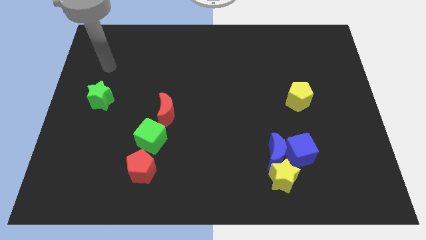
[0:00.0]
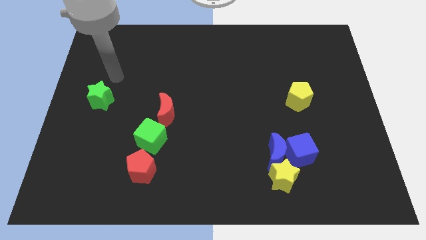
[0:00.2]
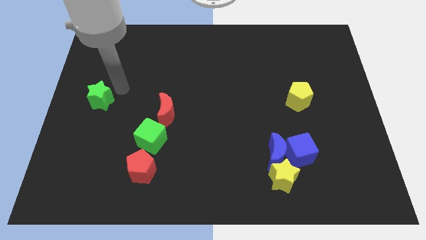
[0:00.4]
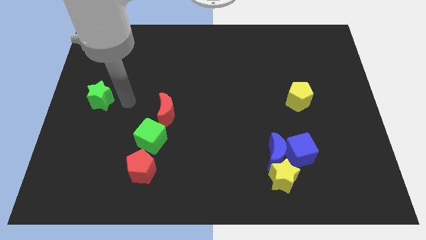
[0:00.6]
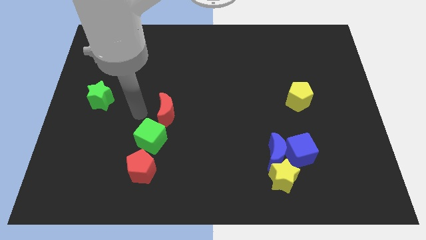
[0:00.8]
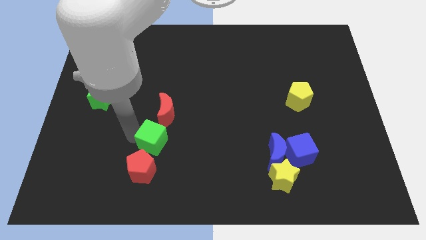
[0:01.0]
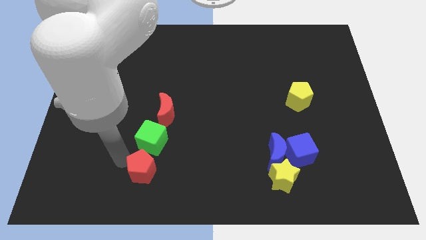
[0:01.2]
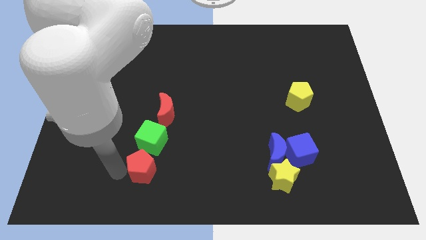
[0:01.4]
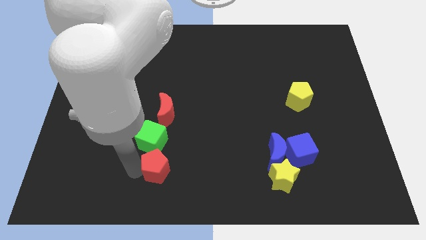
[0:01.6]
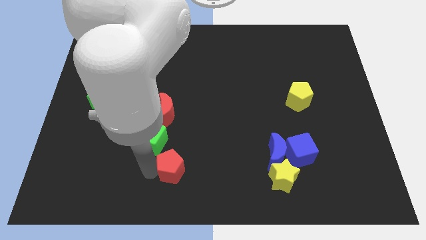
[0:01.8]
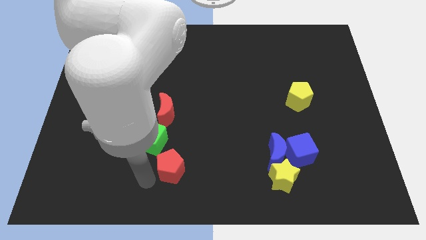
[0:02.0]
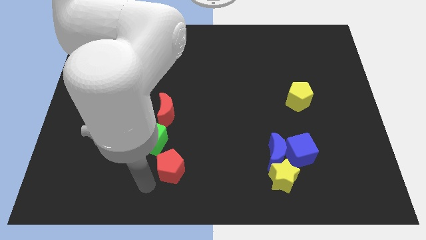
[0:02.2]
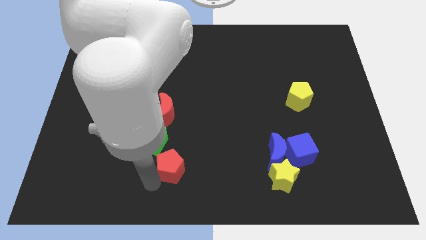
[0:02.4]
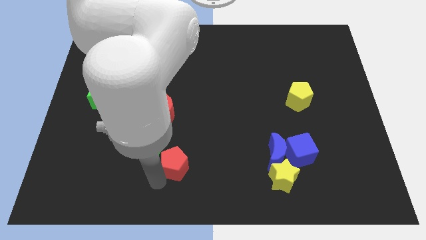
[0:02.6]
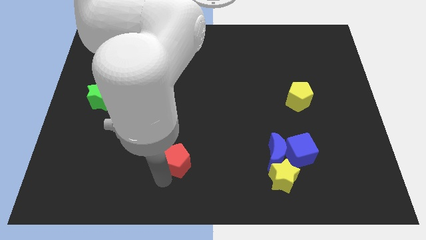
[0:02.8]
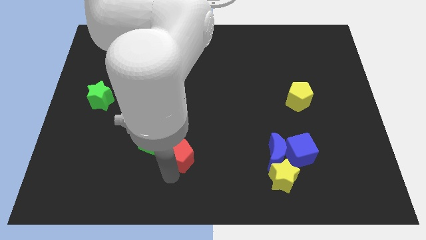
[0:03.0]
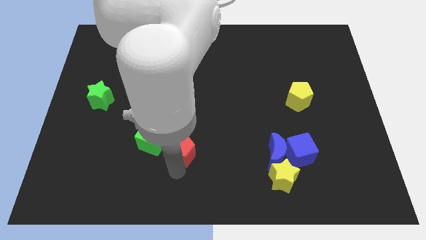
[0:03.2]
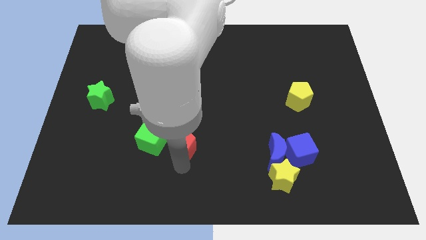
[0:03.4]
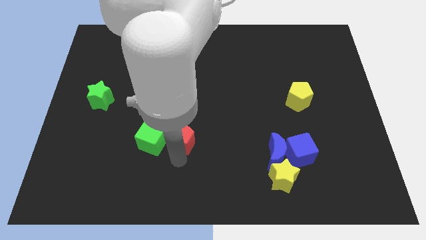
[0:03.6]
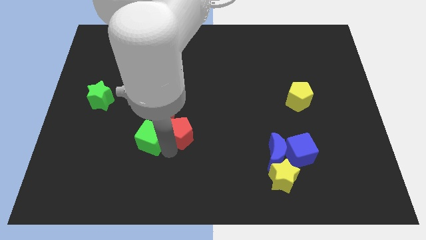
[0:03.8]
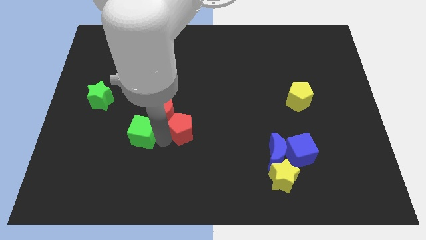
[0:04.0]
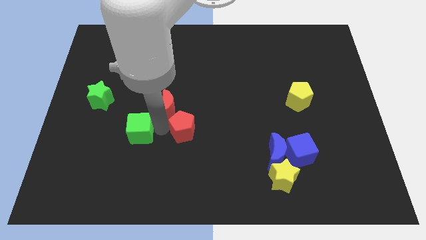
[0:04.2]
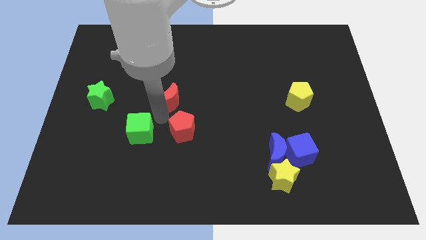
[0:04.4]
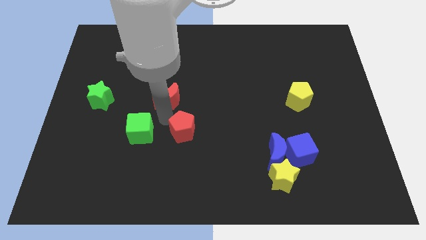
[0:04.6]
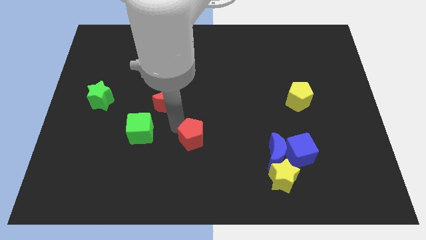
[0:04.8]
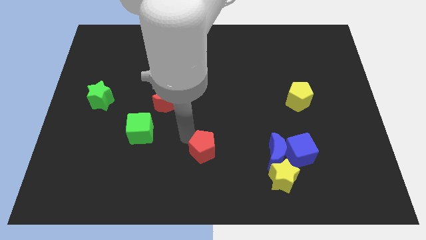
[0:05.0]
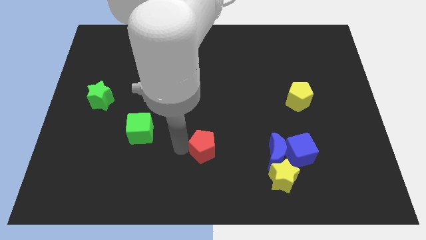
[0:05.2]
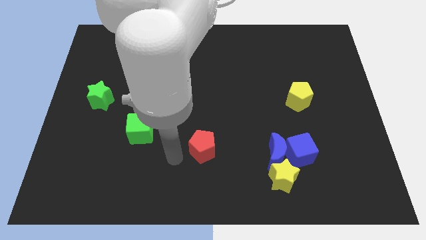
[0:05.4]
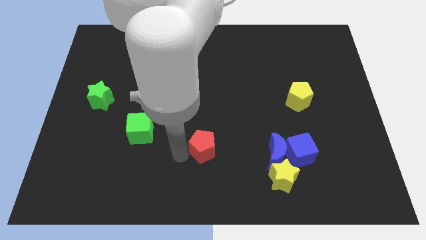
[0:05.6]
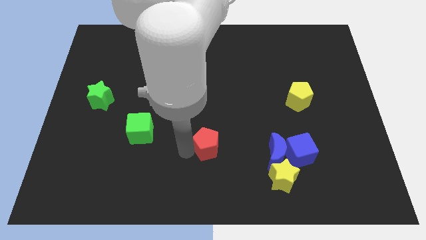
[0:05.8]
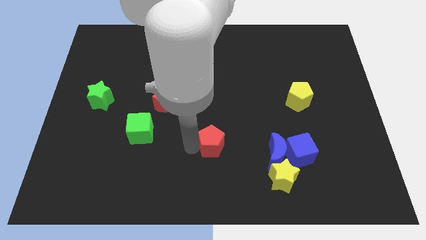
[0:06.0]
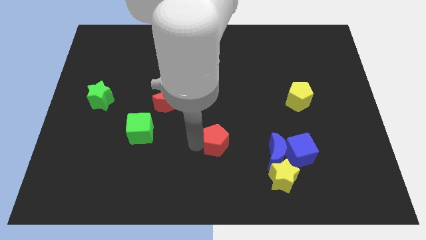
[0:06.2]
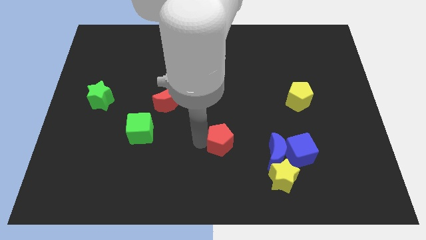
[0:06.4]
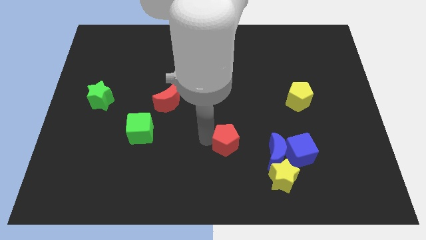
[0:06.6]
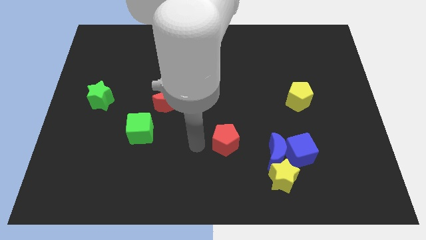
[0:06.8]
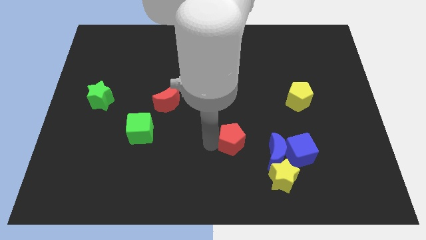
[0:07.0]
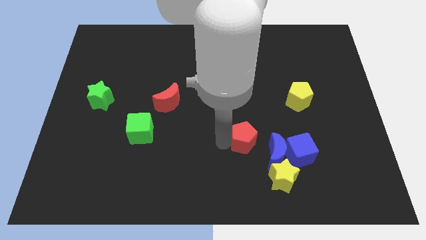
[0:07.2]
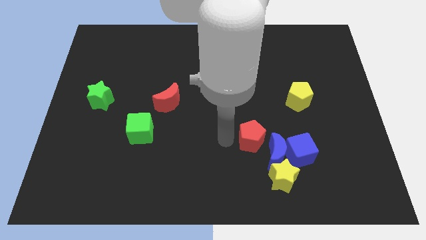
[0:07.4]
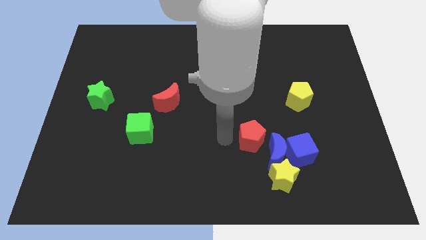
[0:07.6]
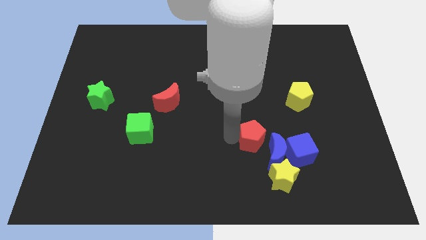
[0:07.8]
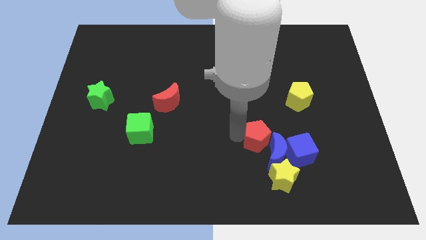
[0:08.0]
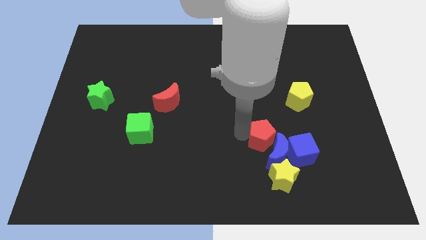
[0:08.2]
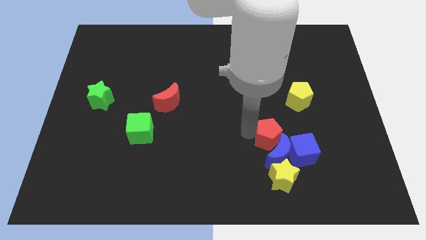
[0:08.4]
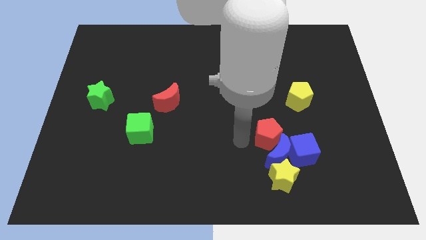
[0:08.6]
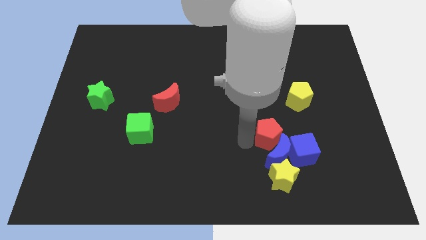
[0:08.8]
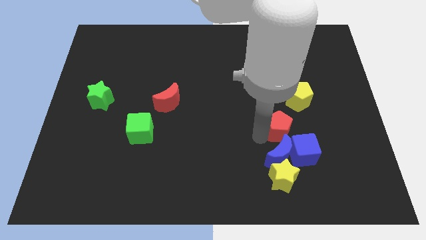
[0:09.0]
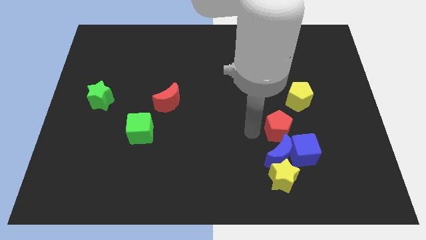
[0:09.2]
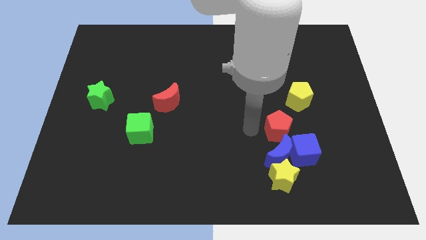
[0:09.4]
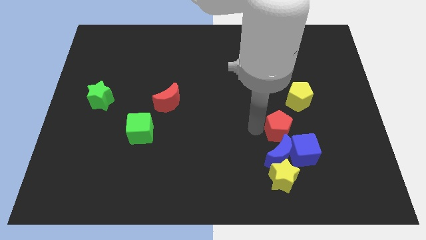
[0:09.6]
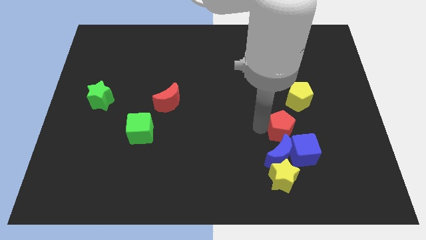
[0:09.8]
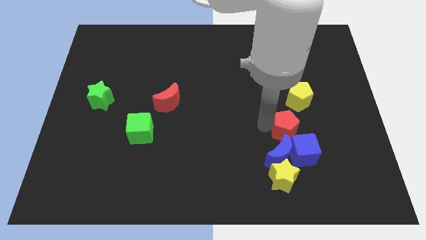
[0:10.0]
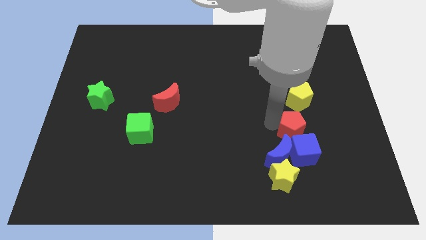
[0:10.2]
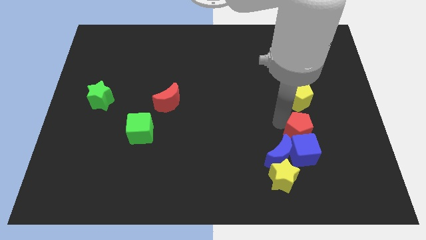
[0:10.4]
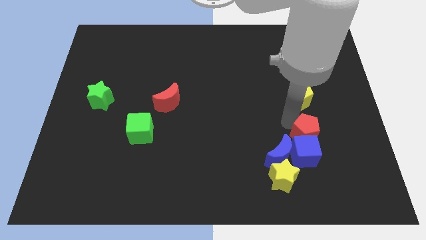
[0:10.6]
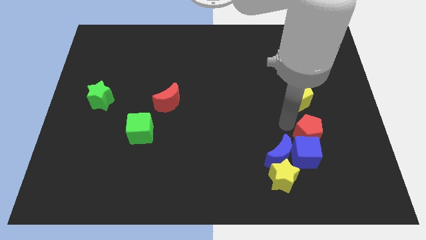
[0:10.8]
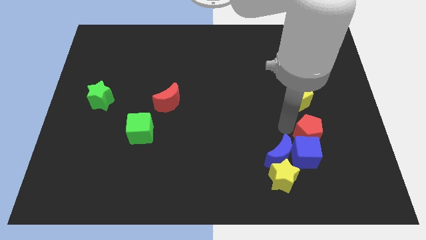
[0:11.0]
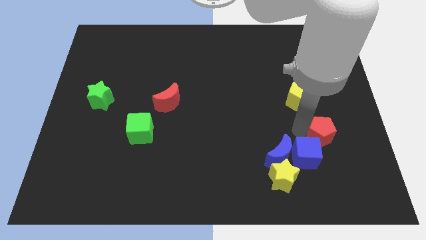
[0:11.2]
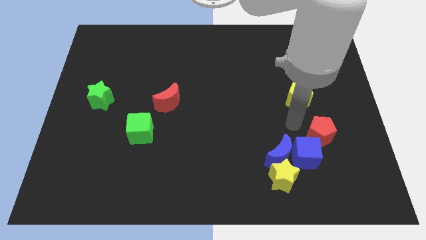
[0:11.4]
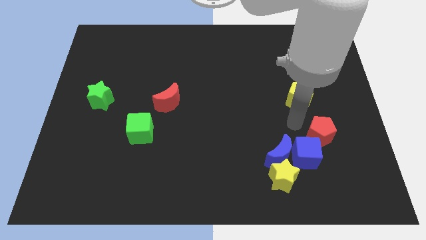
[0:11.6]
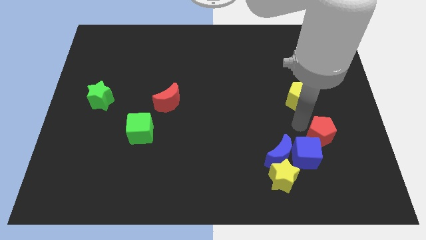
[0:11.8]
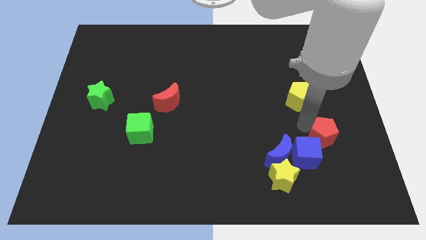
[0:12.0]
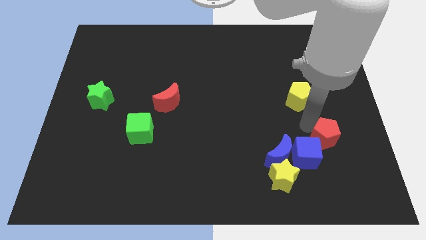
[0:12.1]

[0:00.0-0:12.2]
push the red pentagon to the right of the blue cube

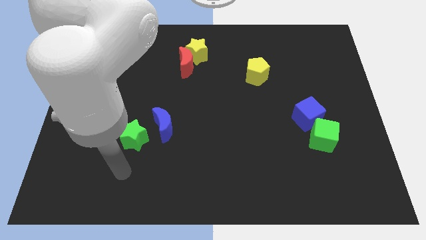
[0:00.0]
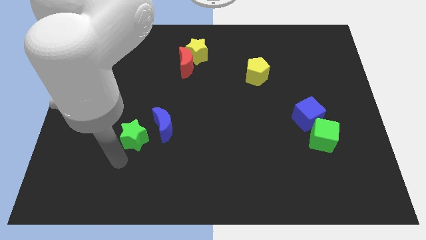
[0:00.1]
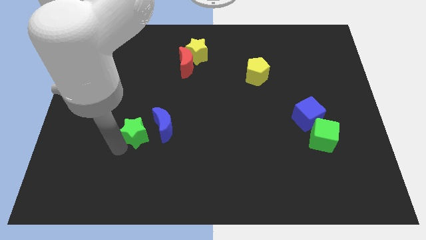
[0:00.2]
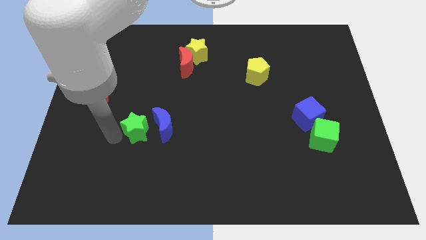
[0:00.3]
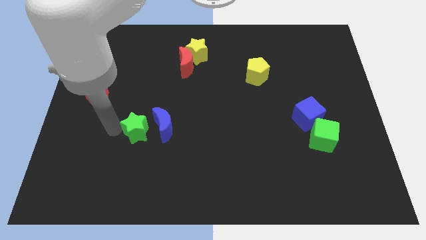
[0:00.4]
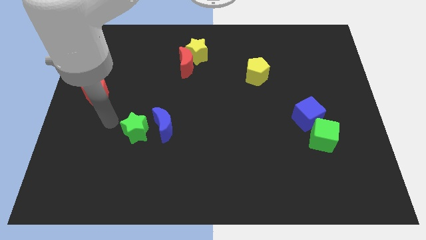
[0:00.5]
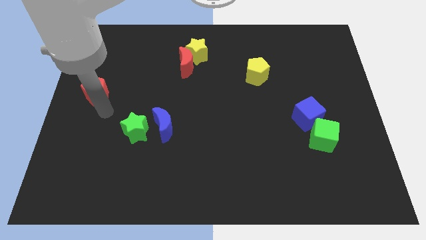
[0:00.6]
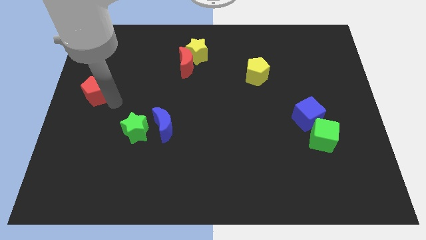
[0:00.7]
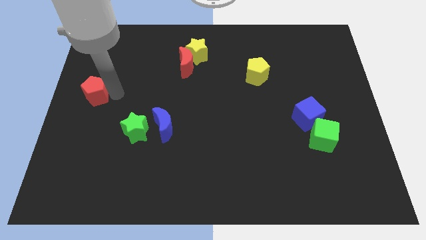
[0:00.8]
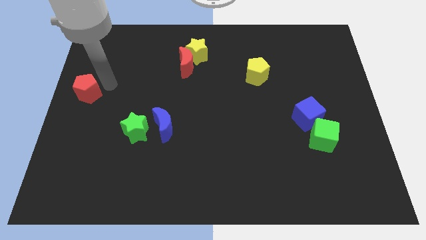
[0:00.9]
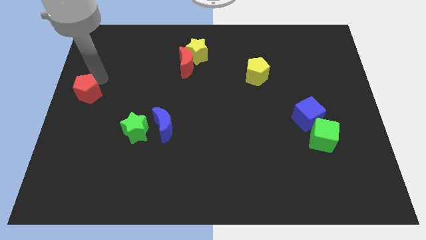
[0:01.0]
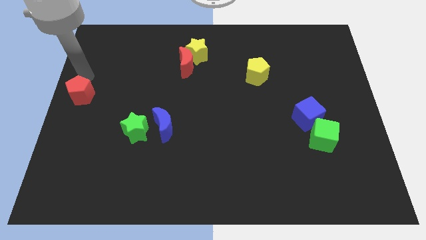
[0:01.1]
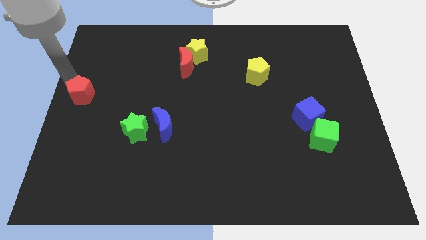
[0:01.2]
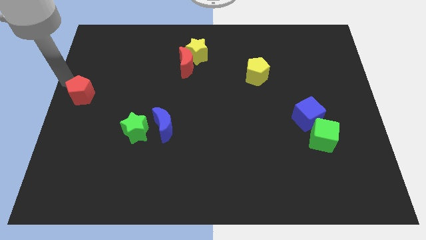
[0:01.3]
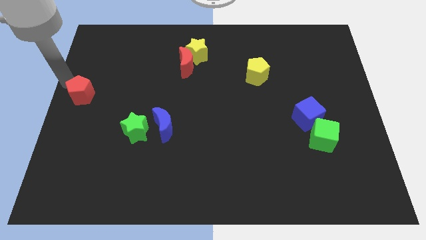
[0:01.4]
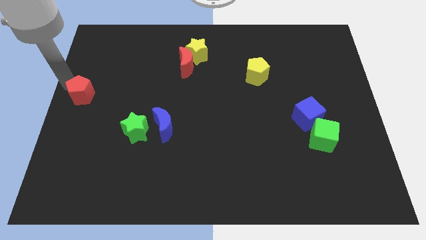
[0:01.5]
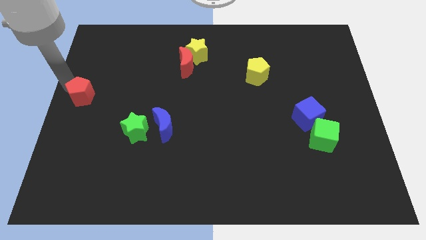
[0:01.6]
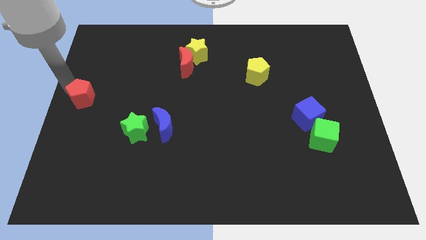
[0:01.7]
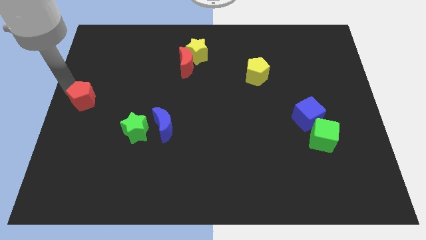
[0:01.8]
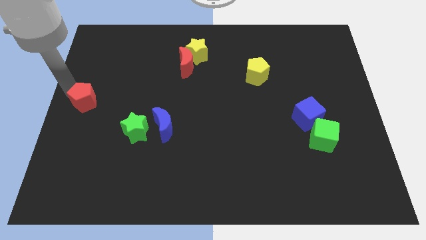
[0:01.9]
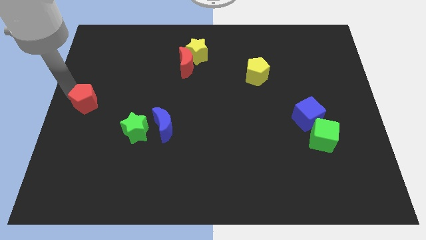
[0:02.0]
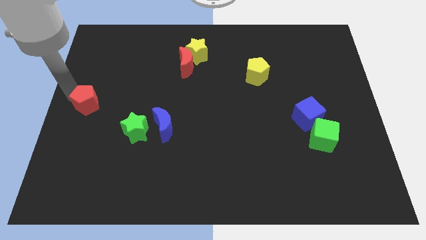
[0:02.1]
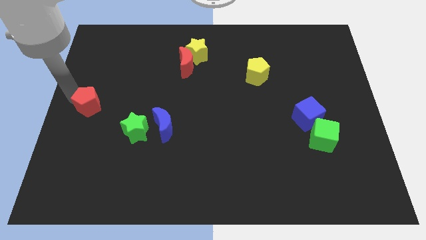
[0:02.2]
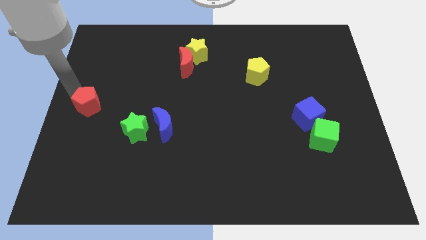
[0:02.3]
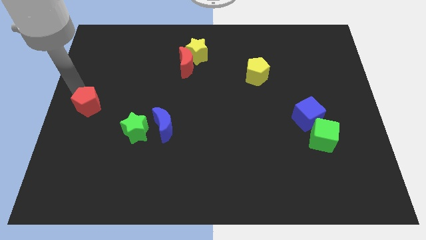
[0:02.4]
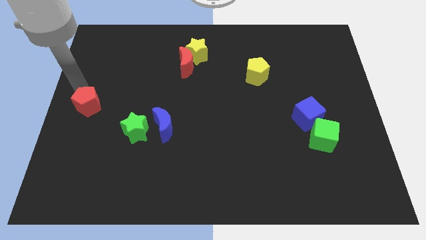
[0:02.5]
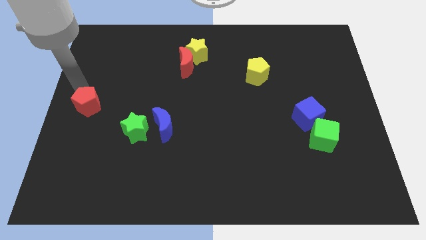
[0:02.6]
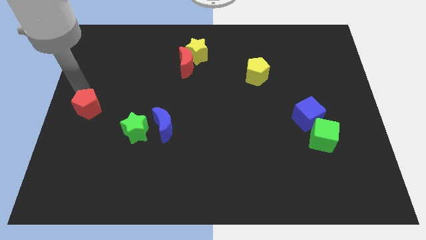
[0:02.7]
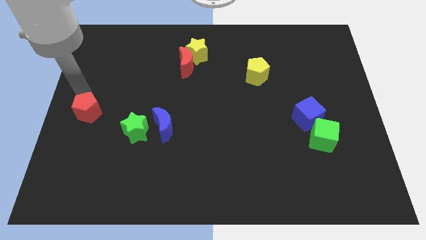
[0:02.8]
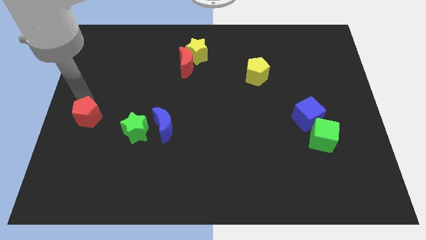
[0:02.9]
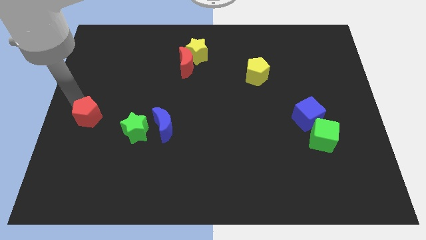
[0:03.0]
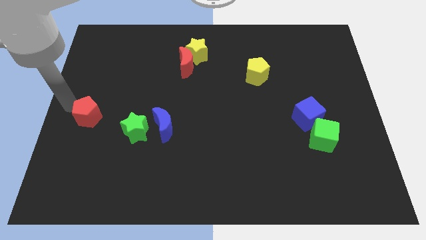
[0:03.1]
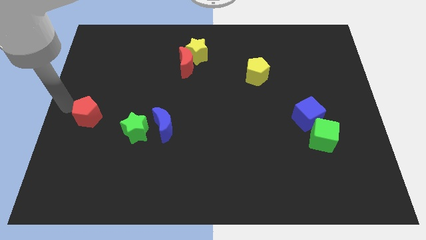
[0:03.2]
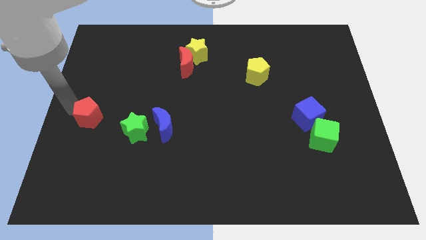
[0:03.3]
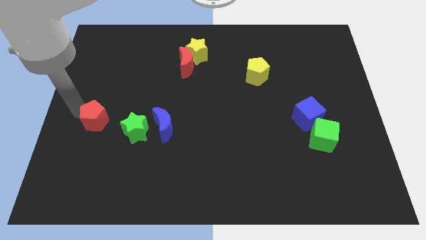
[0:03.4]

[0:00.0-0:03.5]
move the red pentagon to the left of the blue moon
